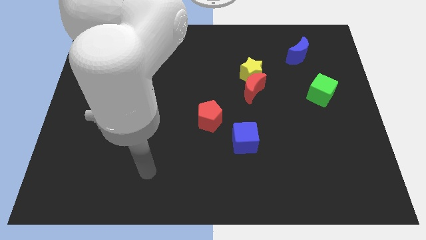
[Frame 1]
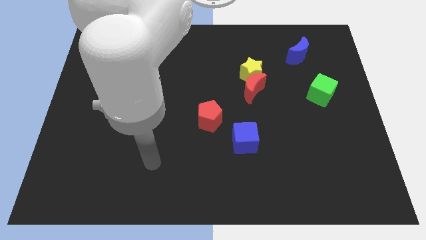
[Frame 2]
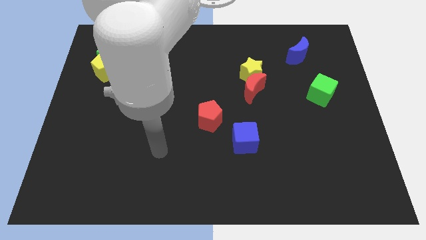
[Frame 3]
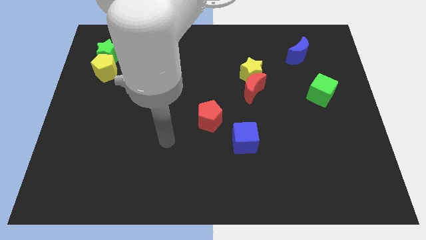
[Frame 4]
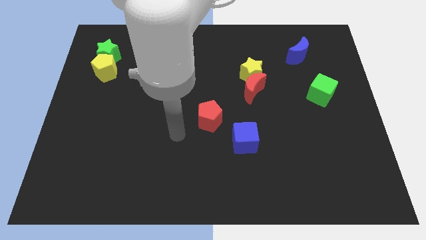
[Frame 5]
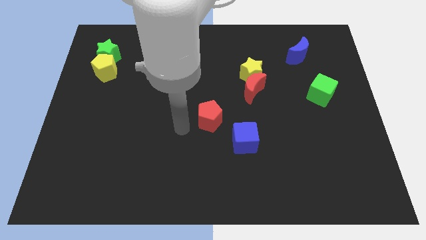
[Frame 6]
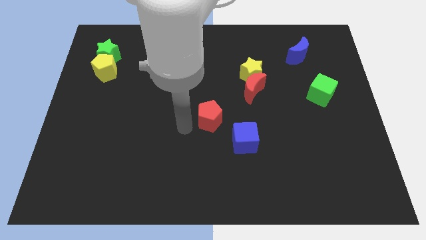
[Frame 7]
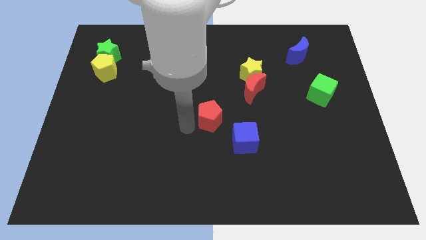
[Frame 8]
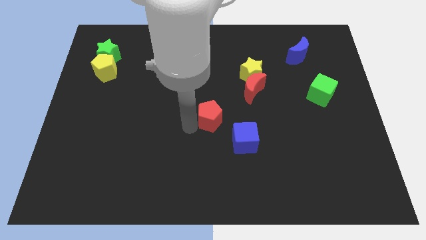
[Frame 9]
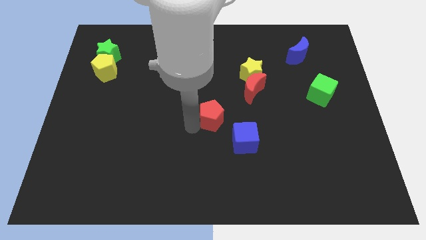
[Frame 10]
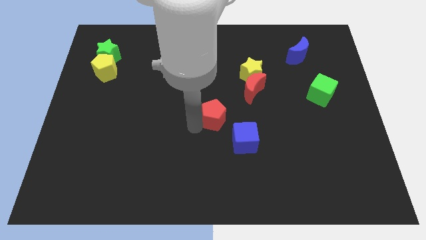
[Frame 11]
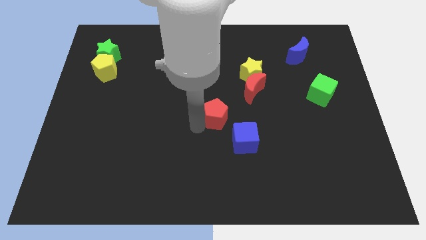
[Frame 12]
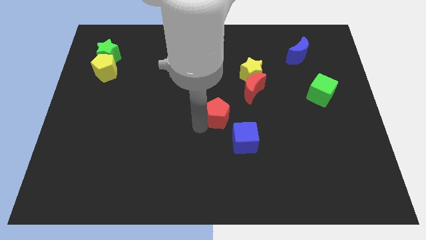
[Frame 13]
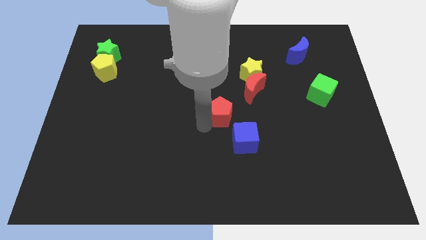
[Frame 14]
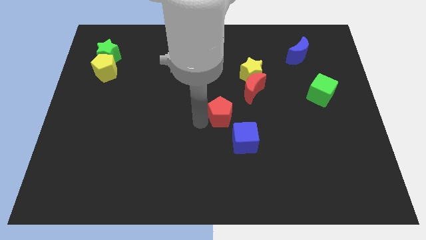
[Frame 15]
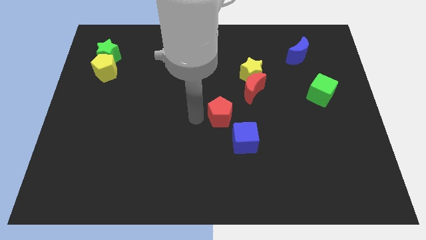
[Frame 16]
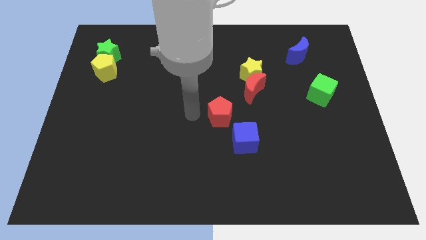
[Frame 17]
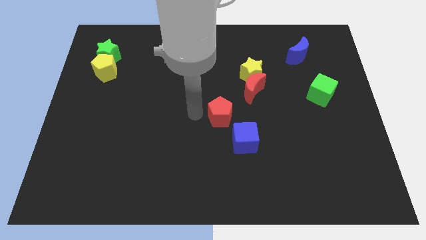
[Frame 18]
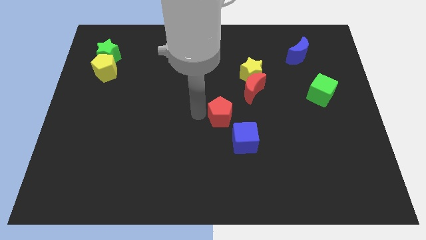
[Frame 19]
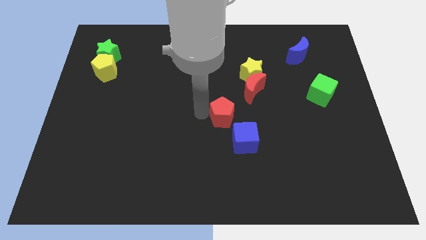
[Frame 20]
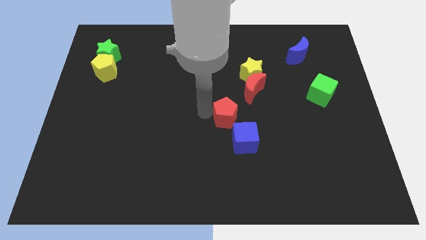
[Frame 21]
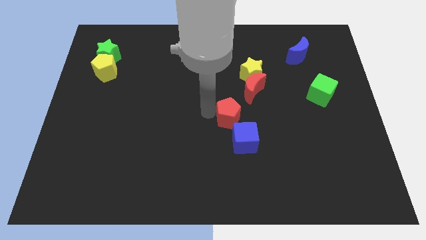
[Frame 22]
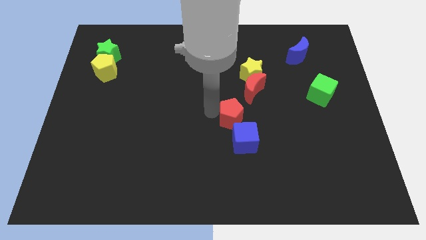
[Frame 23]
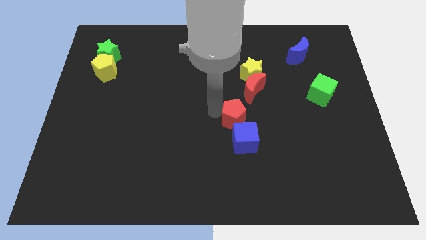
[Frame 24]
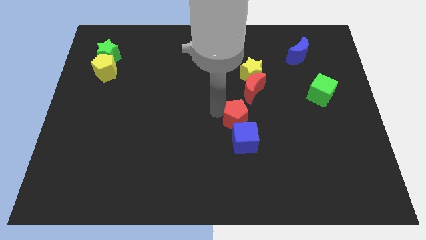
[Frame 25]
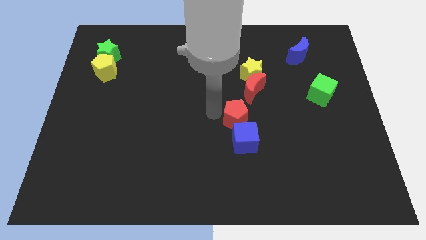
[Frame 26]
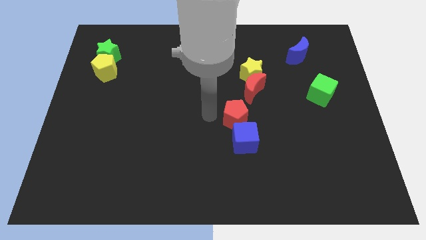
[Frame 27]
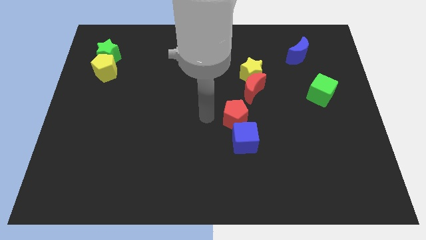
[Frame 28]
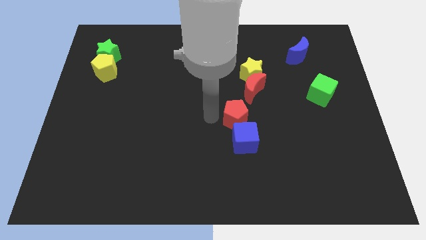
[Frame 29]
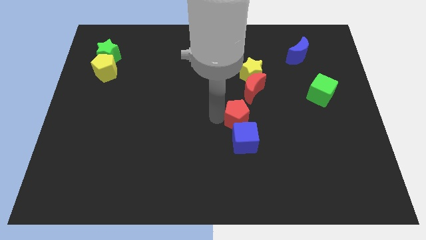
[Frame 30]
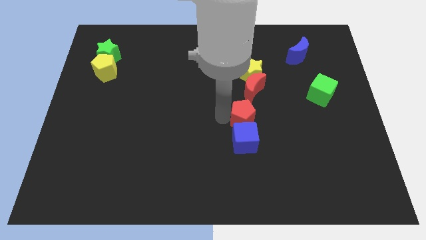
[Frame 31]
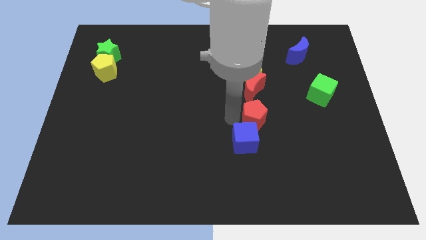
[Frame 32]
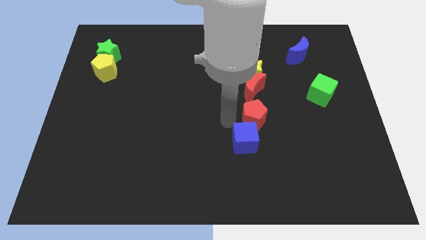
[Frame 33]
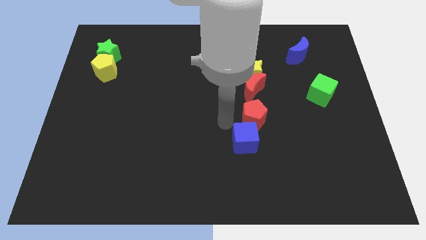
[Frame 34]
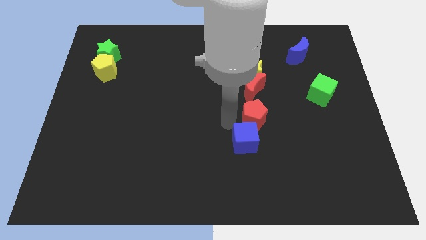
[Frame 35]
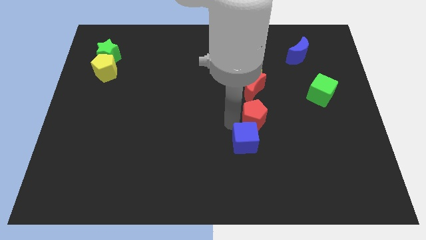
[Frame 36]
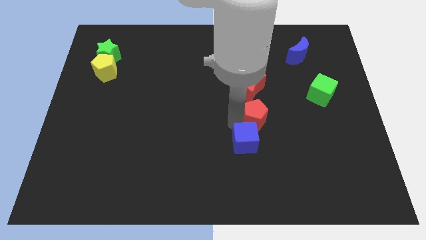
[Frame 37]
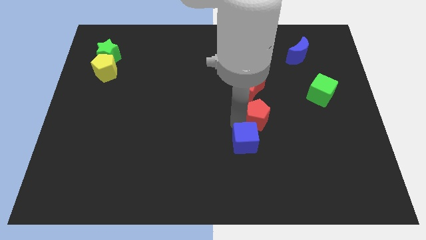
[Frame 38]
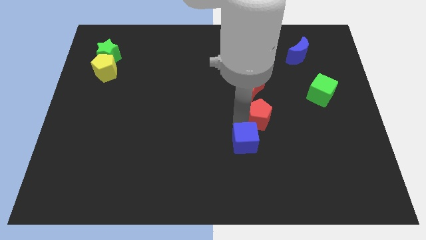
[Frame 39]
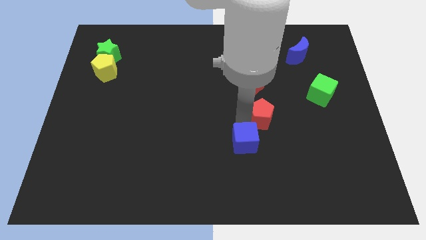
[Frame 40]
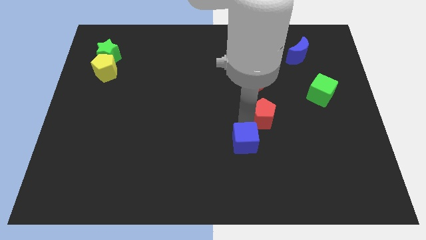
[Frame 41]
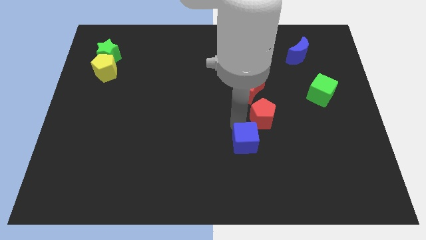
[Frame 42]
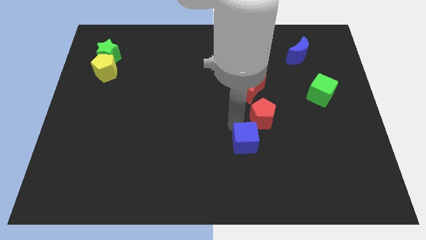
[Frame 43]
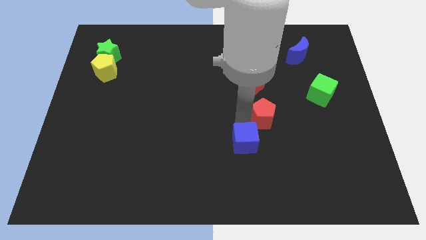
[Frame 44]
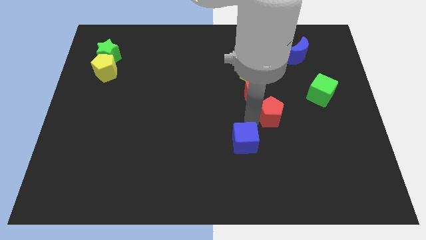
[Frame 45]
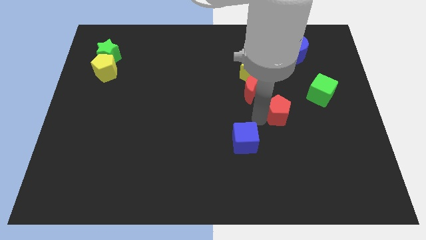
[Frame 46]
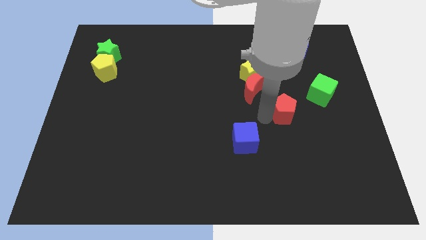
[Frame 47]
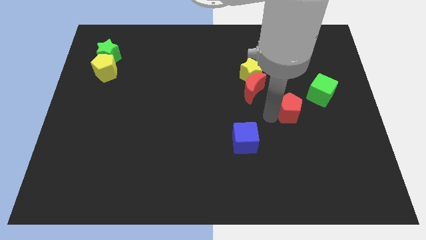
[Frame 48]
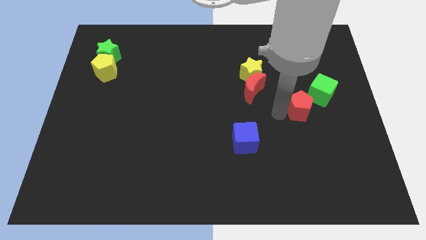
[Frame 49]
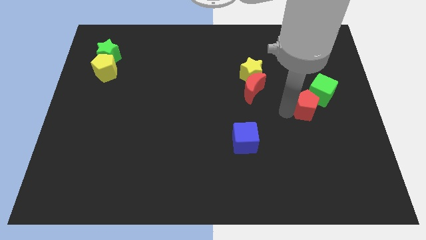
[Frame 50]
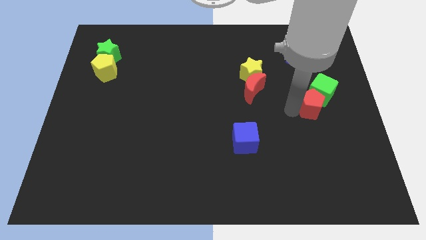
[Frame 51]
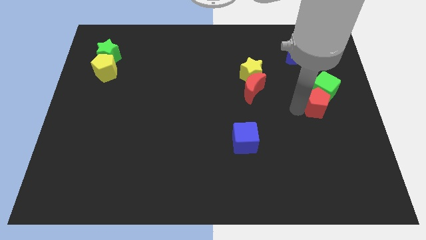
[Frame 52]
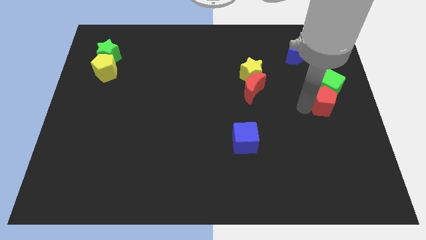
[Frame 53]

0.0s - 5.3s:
move the red pentagon to the right side of the board

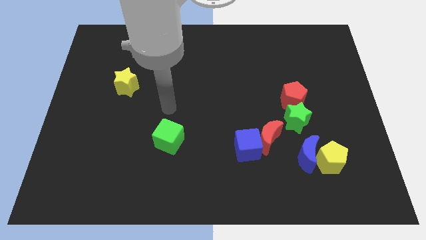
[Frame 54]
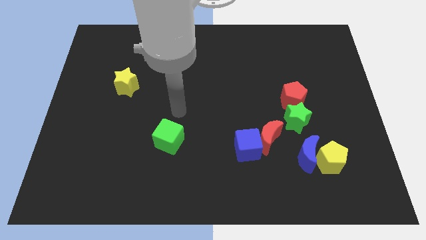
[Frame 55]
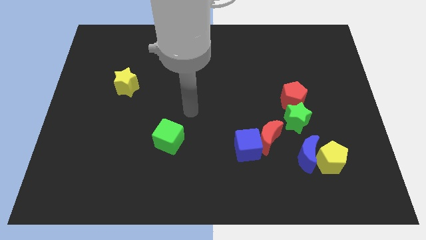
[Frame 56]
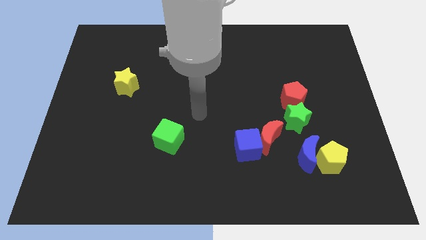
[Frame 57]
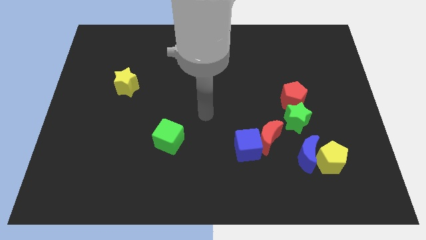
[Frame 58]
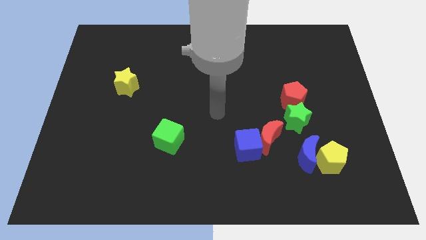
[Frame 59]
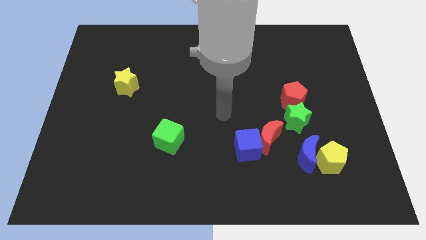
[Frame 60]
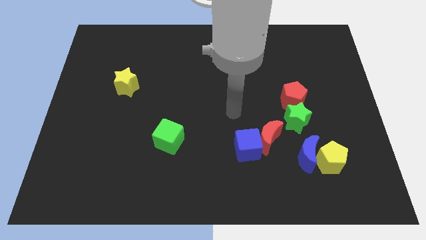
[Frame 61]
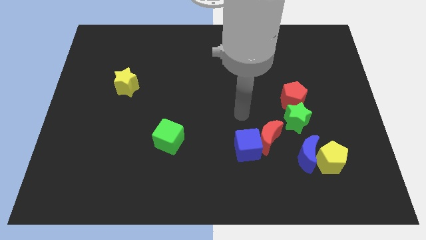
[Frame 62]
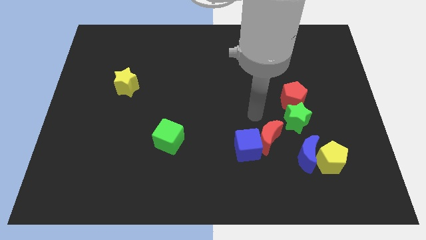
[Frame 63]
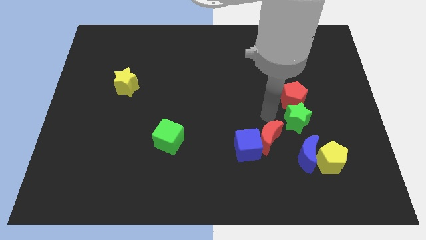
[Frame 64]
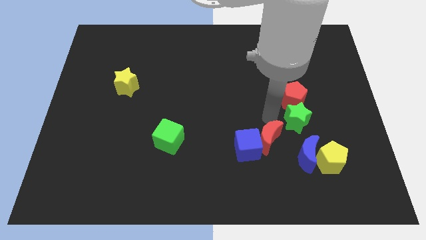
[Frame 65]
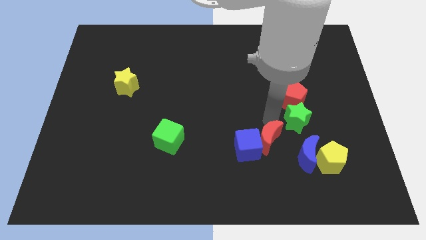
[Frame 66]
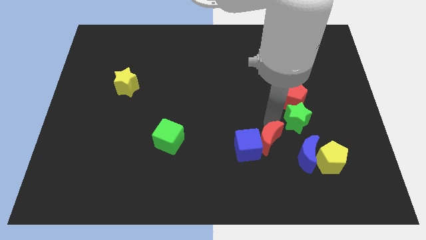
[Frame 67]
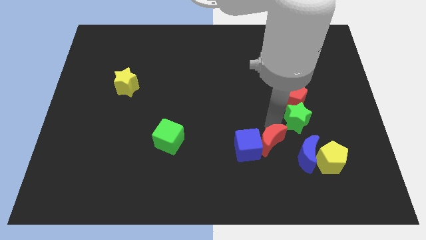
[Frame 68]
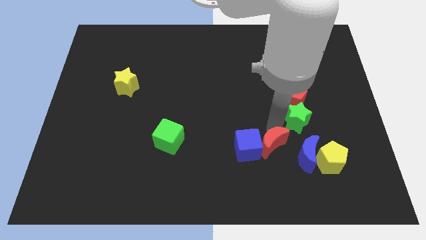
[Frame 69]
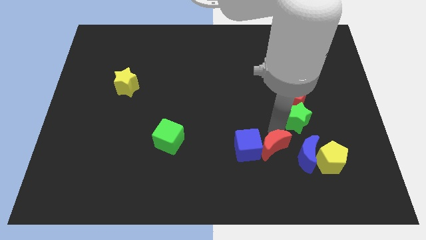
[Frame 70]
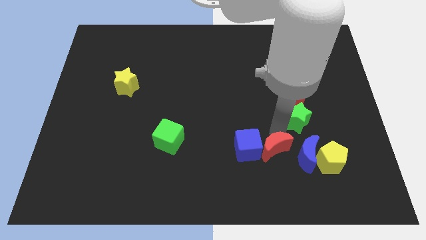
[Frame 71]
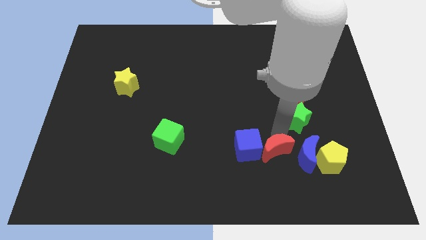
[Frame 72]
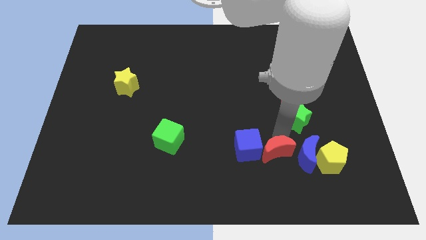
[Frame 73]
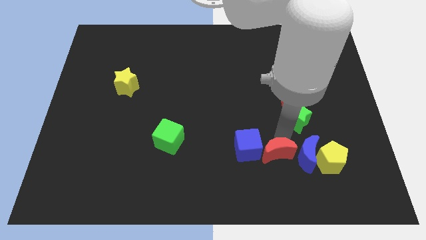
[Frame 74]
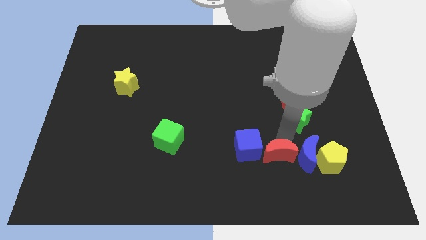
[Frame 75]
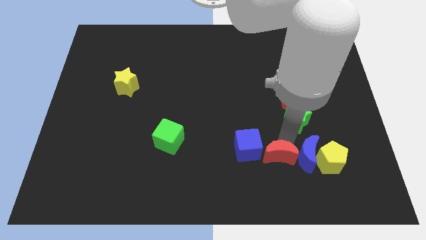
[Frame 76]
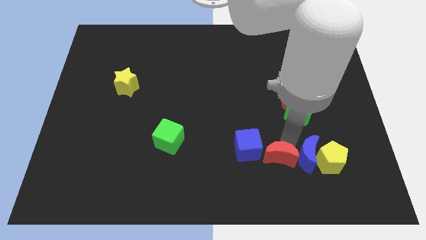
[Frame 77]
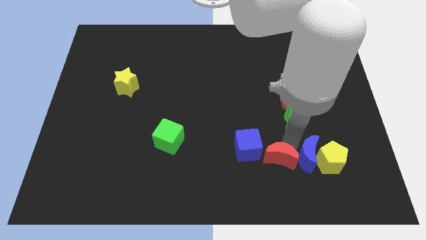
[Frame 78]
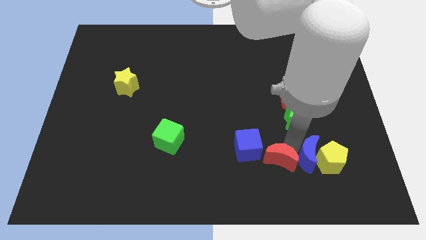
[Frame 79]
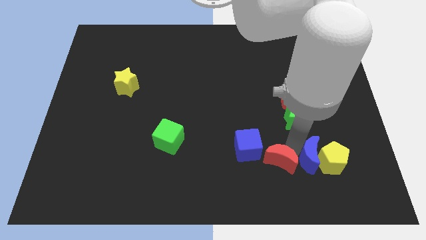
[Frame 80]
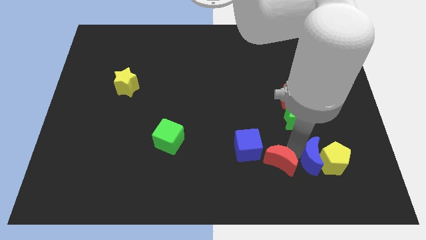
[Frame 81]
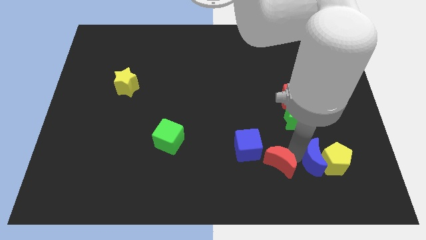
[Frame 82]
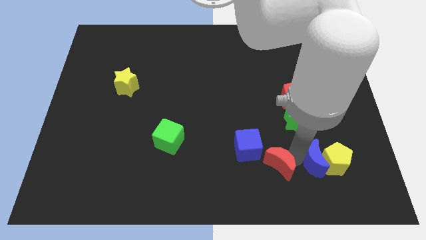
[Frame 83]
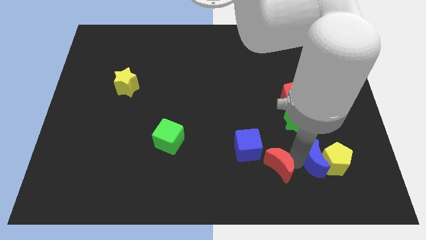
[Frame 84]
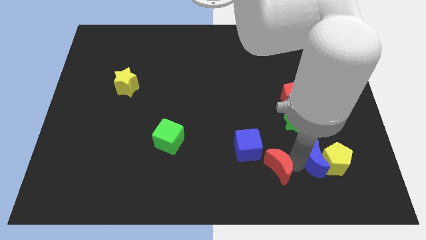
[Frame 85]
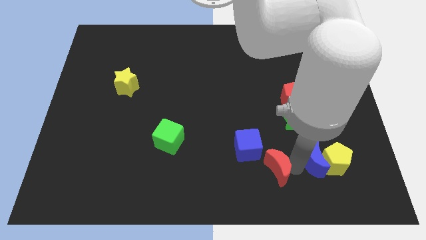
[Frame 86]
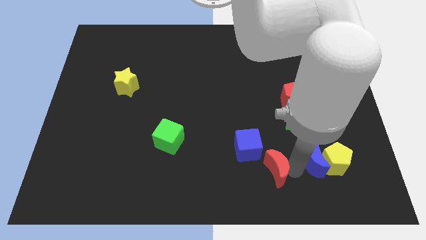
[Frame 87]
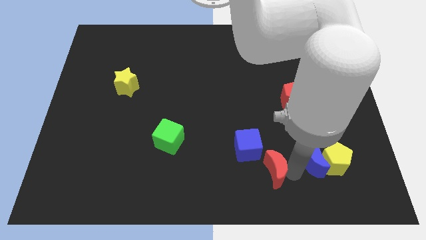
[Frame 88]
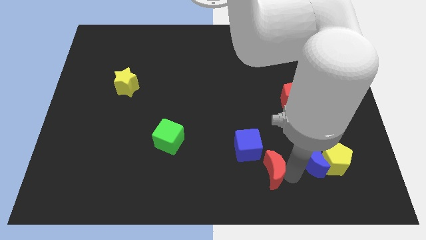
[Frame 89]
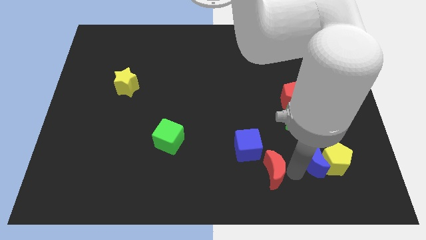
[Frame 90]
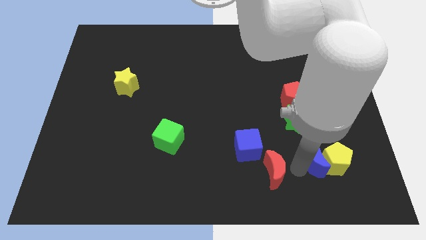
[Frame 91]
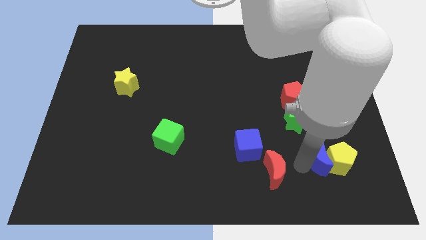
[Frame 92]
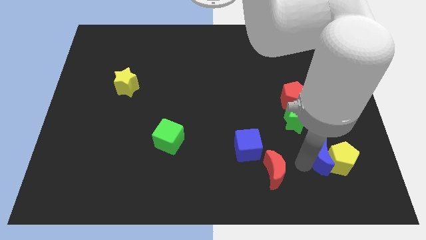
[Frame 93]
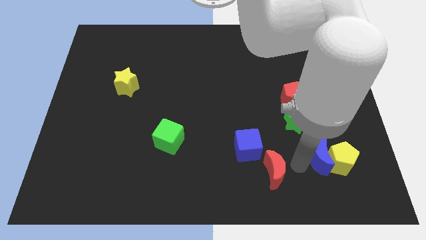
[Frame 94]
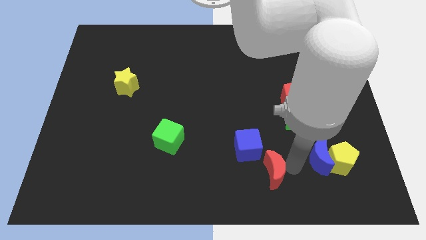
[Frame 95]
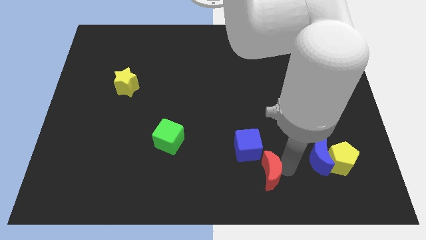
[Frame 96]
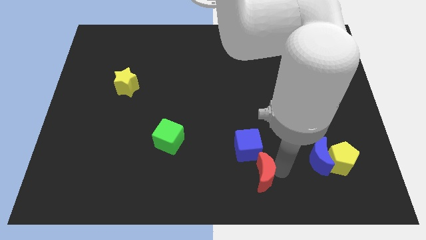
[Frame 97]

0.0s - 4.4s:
put the red moon to the bottom
